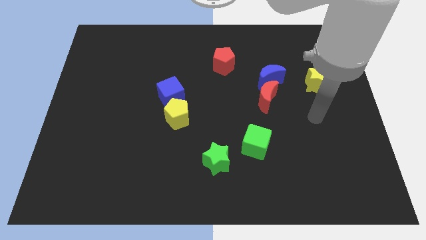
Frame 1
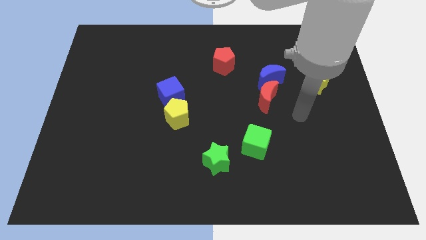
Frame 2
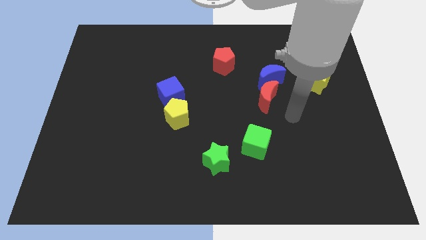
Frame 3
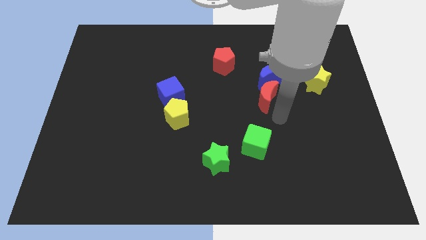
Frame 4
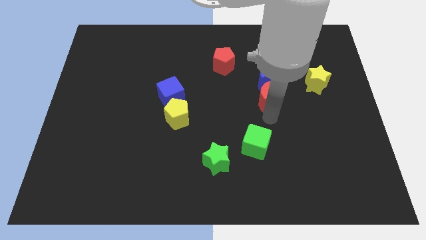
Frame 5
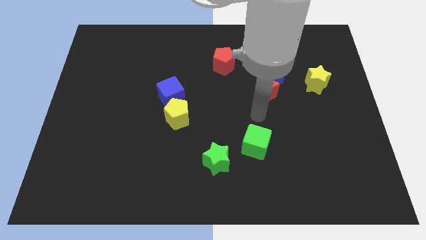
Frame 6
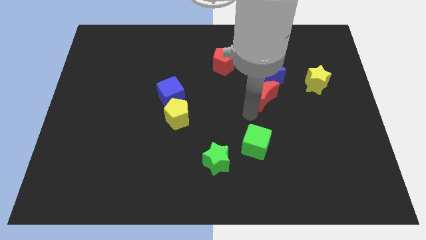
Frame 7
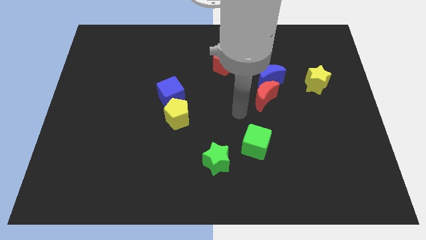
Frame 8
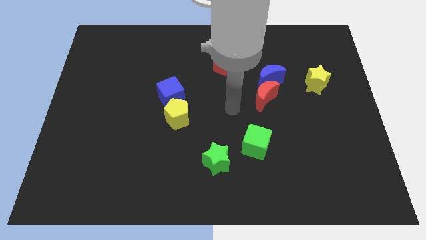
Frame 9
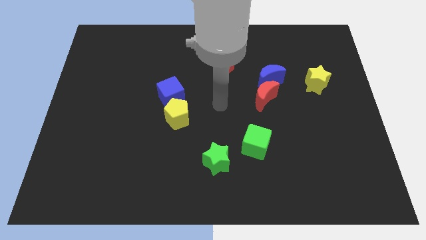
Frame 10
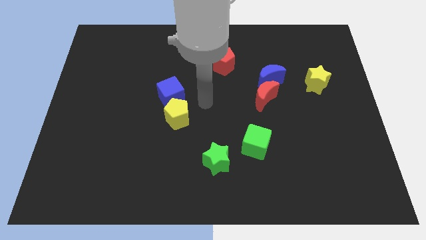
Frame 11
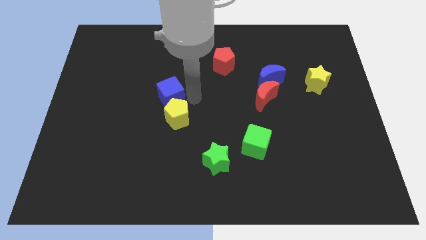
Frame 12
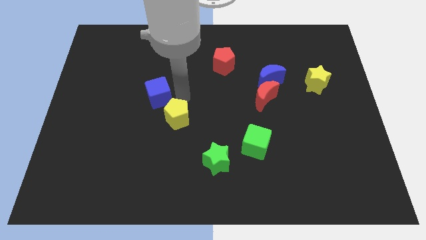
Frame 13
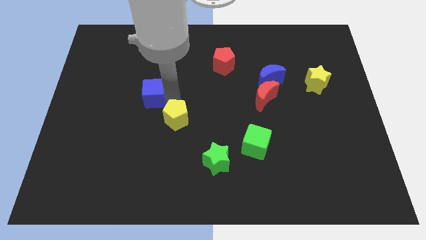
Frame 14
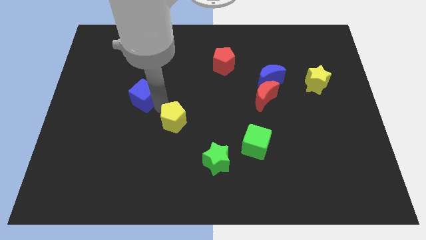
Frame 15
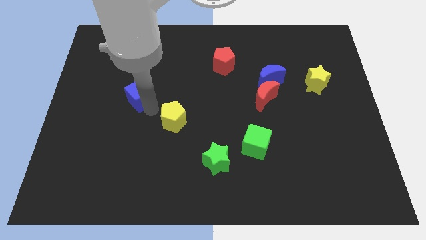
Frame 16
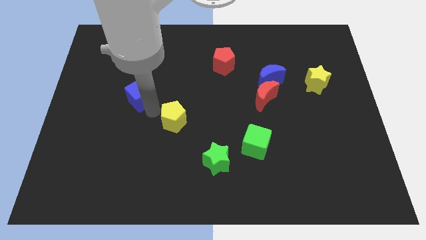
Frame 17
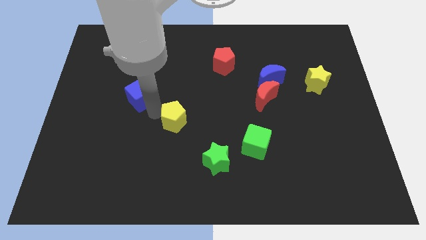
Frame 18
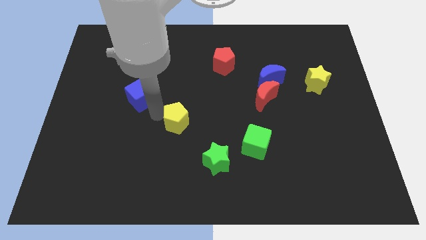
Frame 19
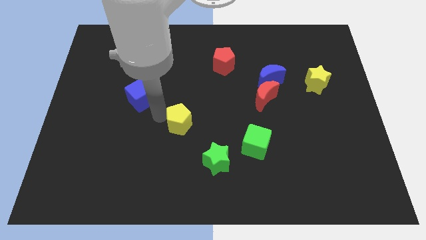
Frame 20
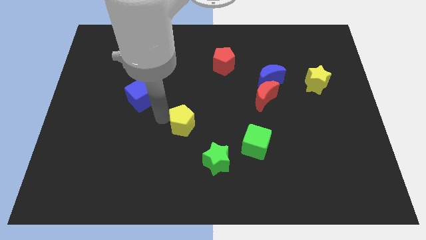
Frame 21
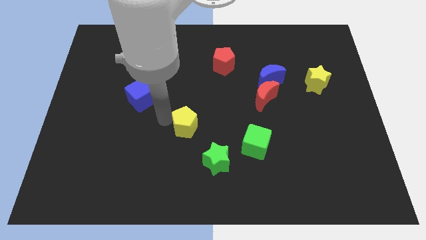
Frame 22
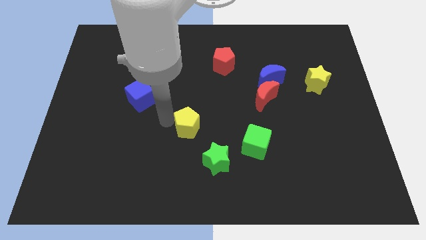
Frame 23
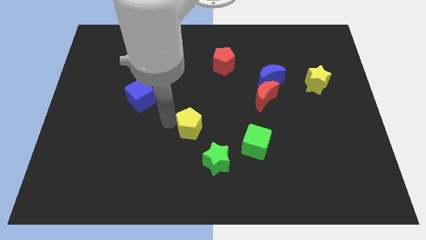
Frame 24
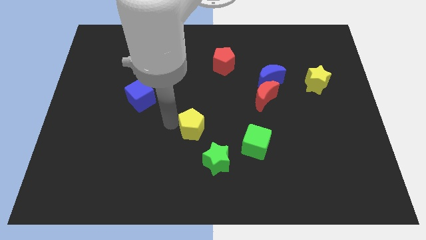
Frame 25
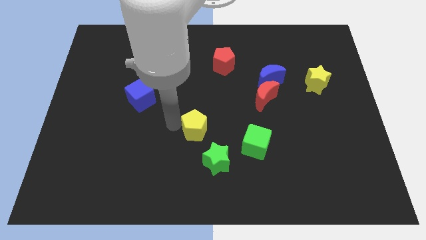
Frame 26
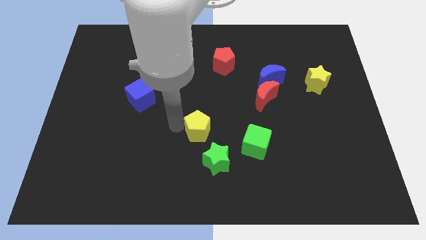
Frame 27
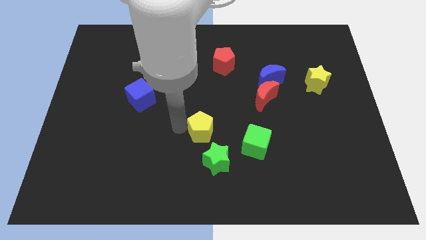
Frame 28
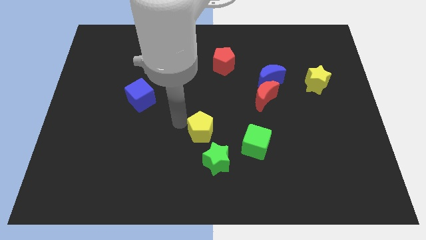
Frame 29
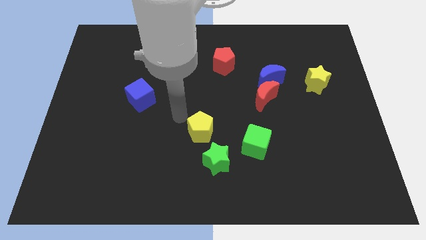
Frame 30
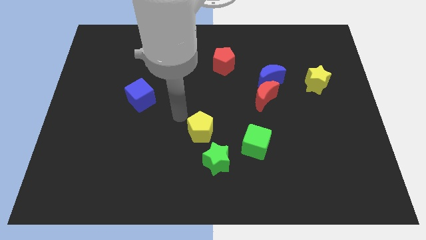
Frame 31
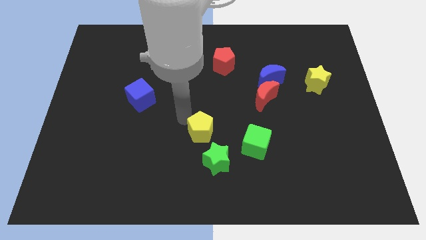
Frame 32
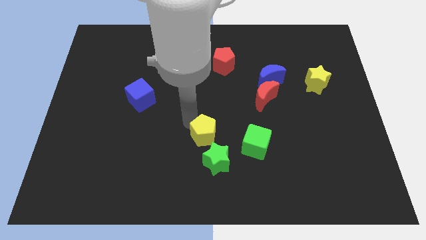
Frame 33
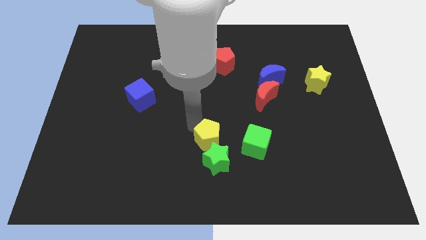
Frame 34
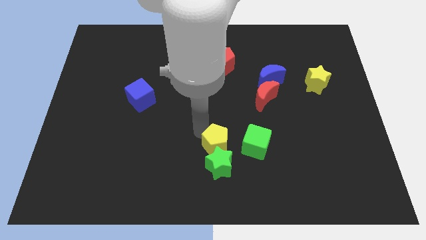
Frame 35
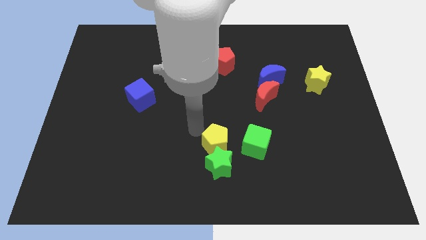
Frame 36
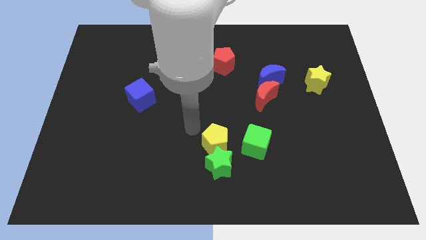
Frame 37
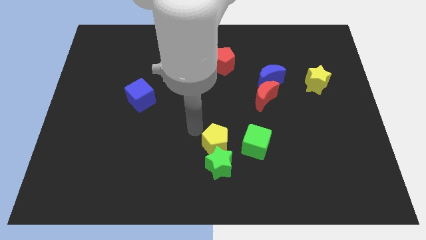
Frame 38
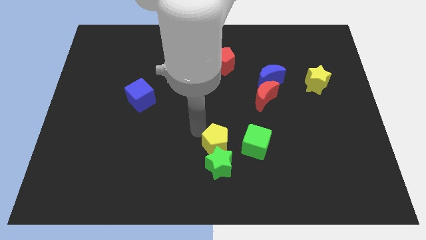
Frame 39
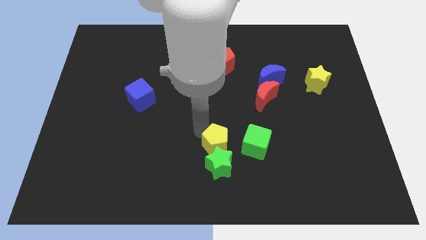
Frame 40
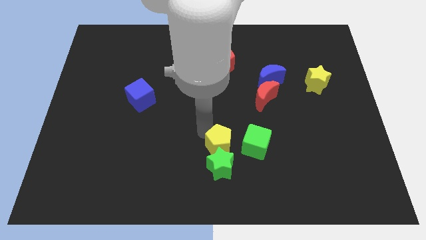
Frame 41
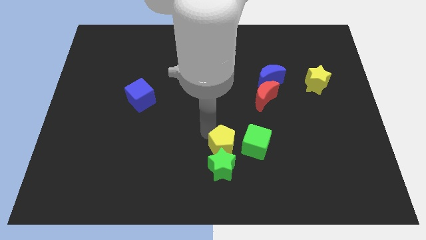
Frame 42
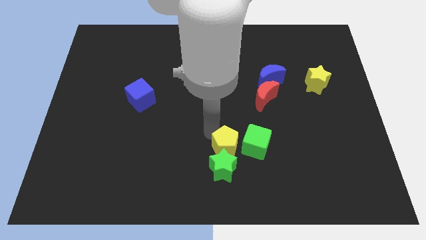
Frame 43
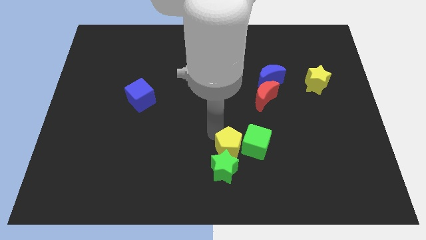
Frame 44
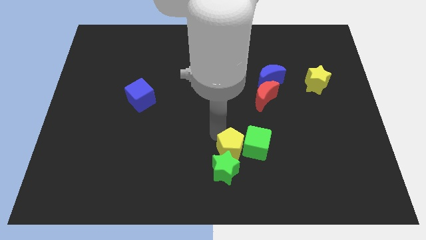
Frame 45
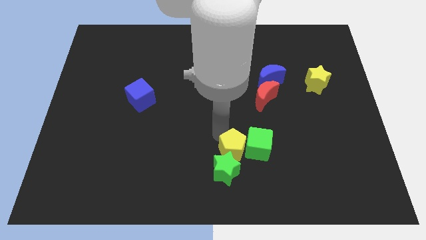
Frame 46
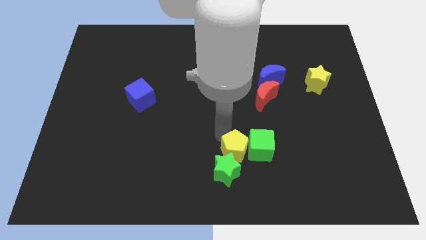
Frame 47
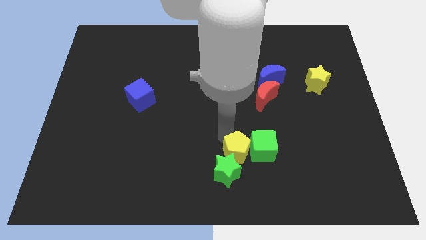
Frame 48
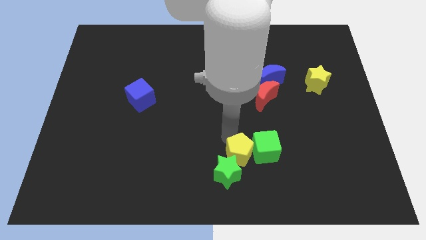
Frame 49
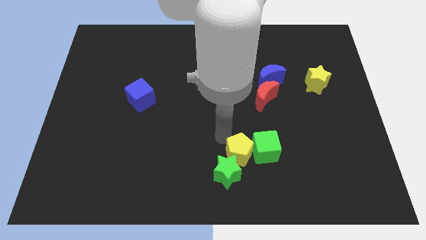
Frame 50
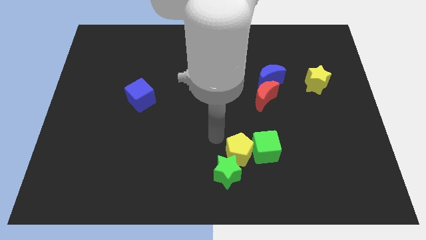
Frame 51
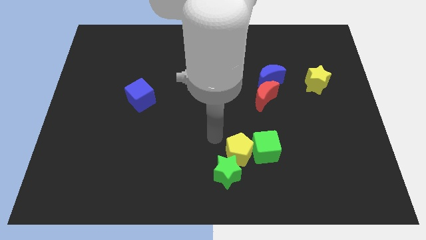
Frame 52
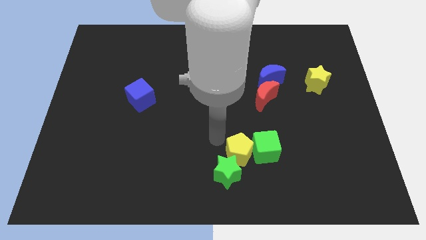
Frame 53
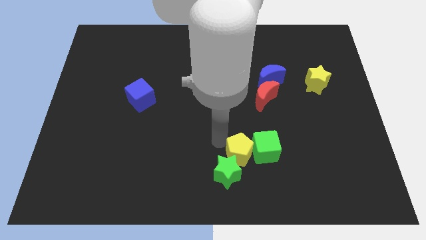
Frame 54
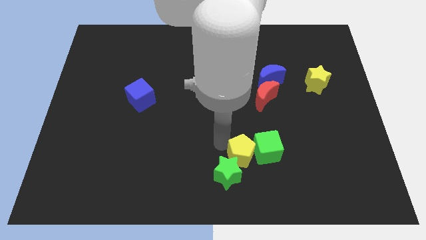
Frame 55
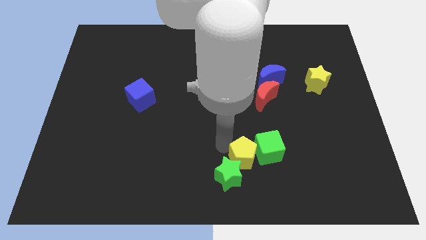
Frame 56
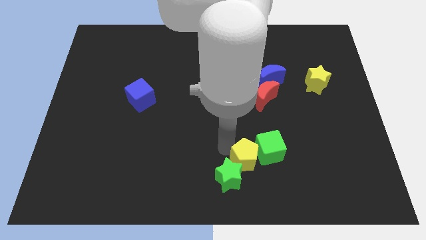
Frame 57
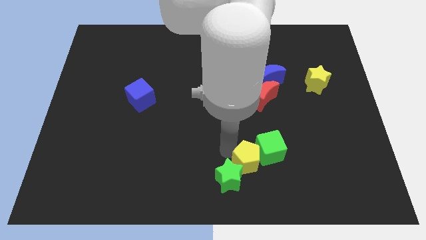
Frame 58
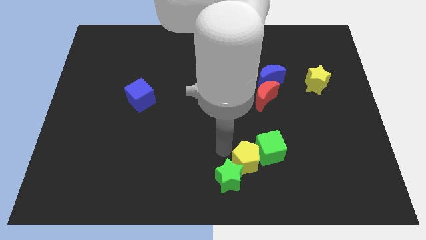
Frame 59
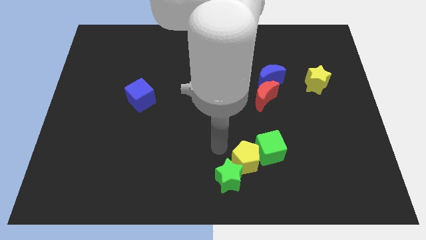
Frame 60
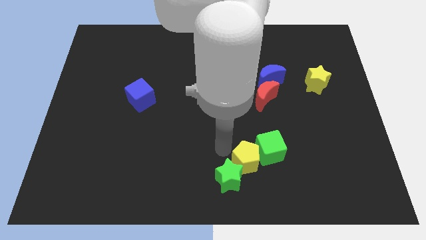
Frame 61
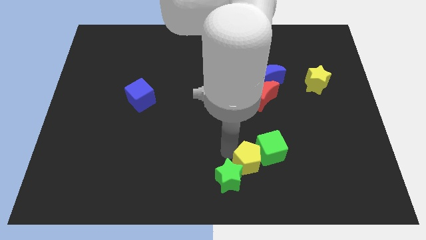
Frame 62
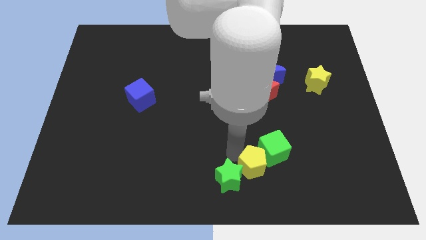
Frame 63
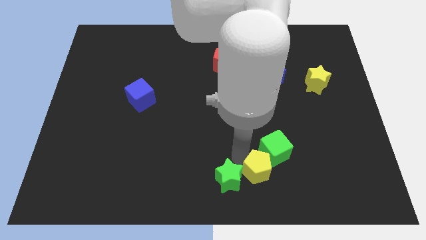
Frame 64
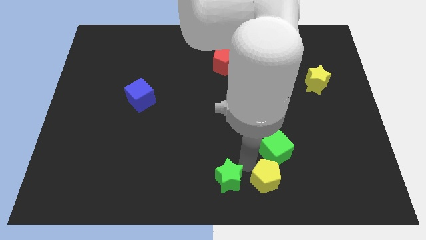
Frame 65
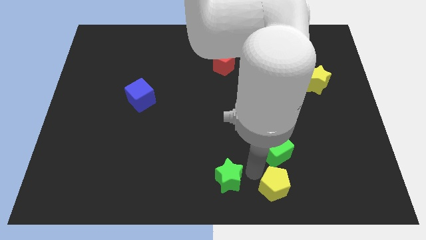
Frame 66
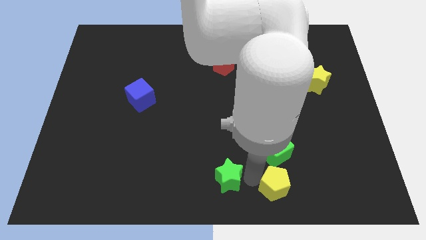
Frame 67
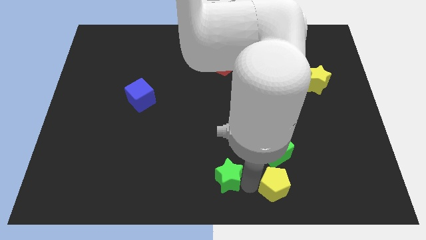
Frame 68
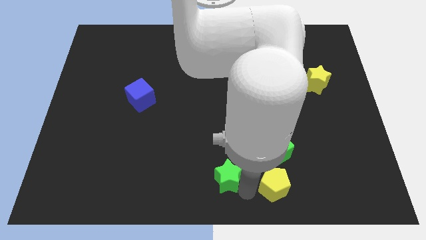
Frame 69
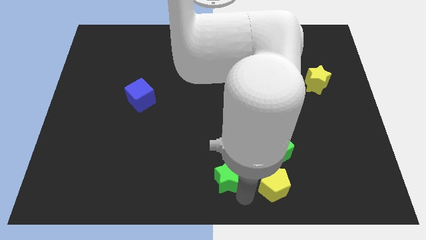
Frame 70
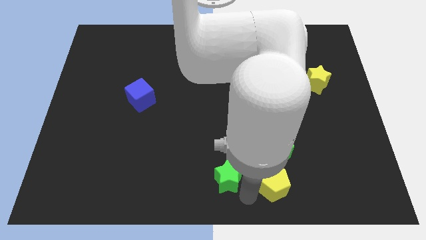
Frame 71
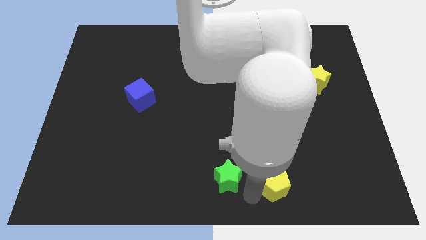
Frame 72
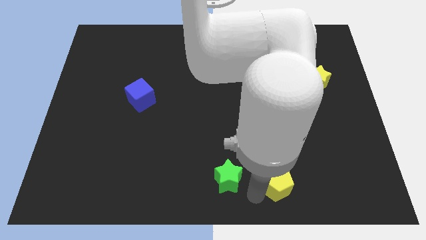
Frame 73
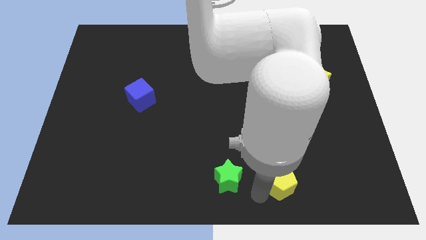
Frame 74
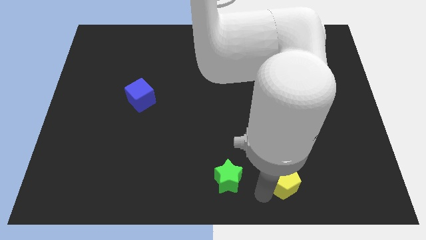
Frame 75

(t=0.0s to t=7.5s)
push the yellow pentagon to the bottom right side of the green cube

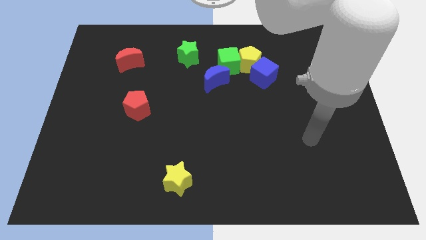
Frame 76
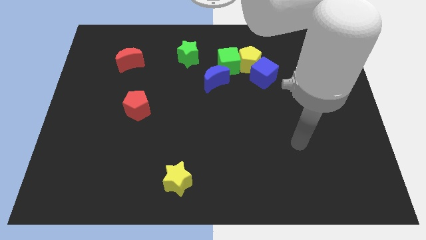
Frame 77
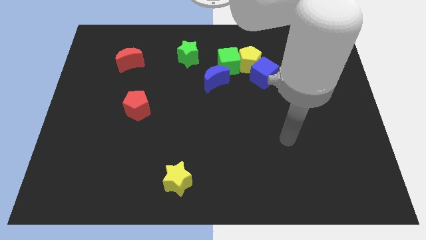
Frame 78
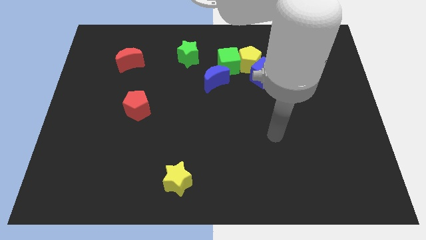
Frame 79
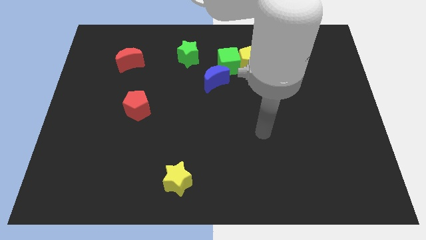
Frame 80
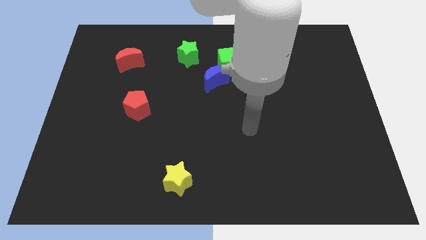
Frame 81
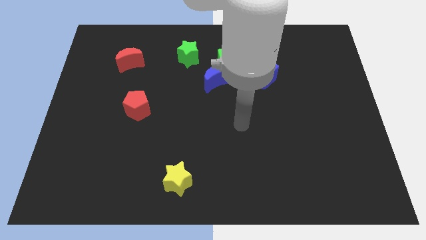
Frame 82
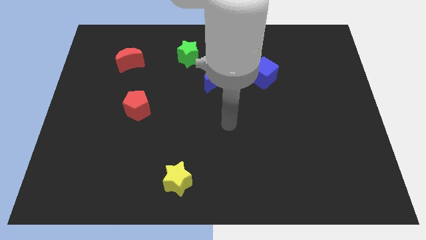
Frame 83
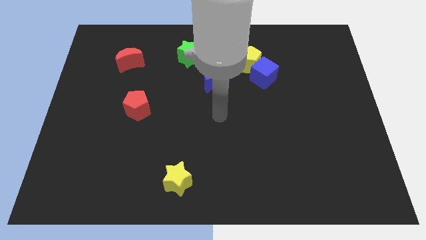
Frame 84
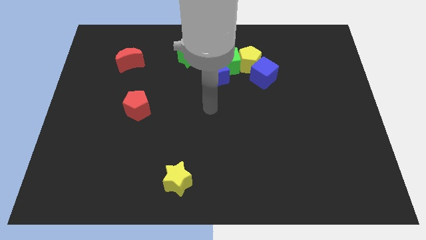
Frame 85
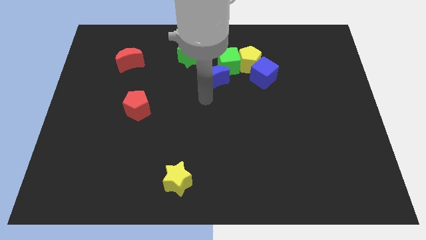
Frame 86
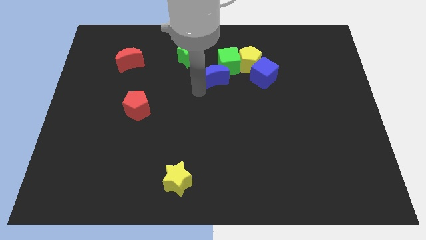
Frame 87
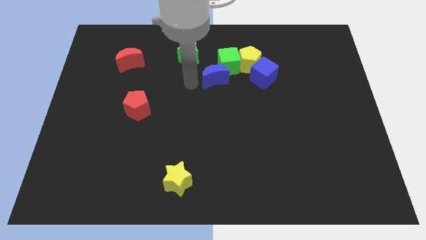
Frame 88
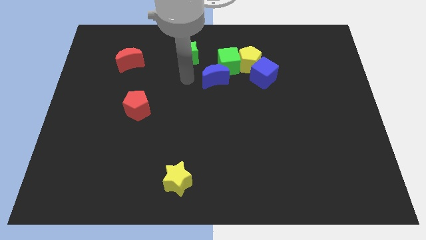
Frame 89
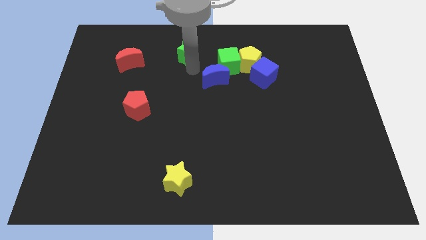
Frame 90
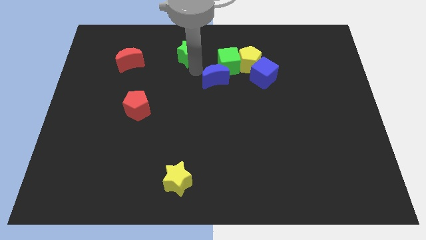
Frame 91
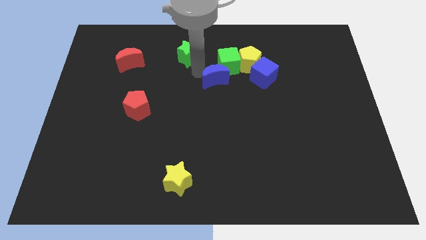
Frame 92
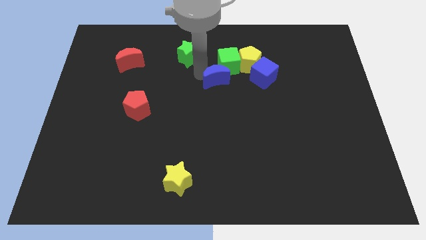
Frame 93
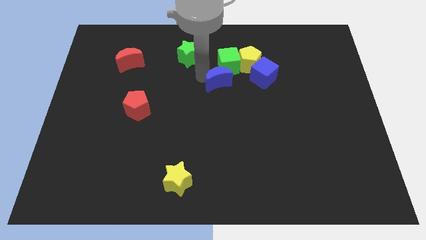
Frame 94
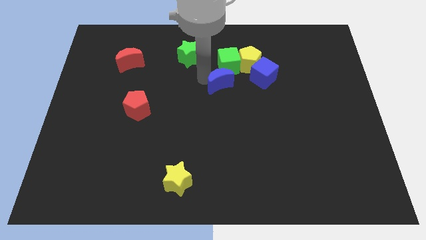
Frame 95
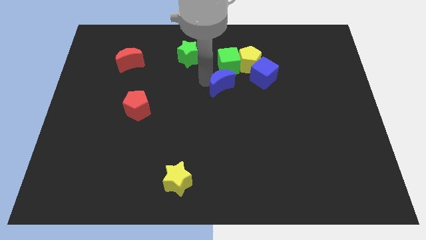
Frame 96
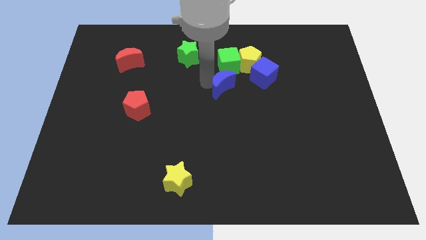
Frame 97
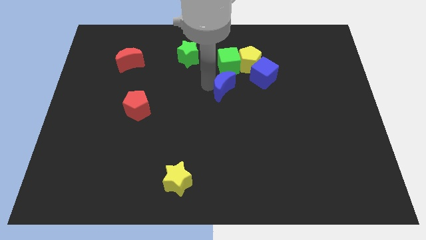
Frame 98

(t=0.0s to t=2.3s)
move the blue moon diagonally down and to the left of the blue cube
